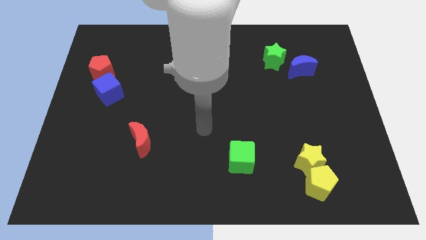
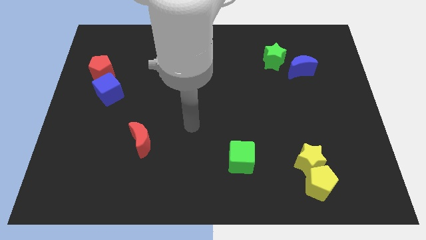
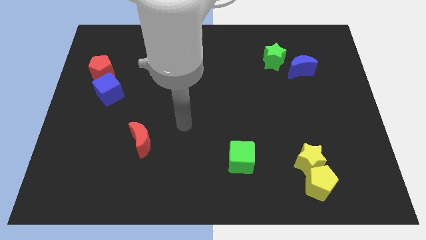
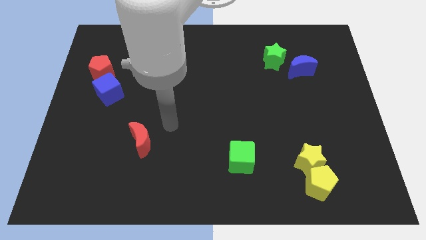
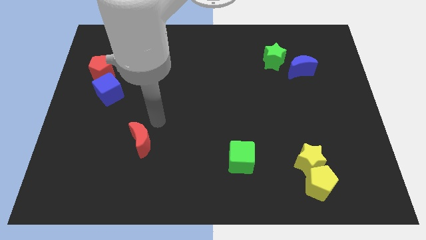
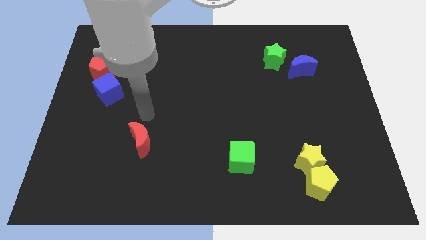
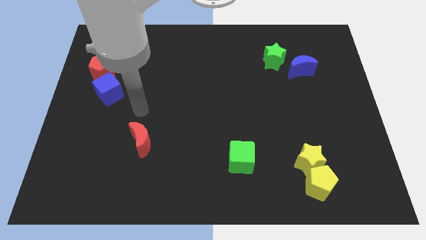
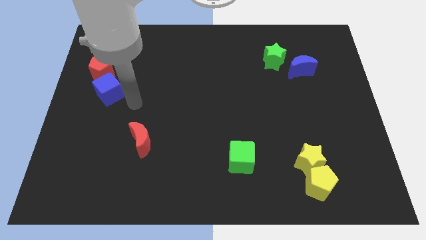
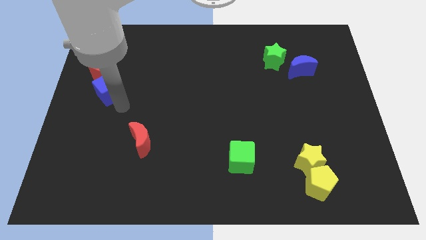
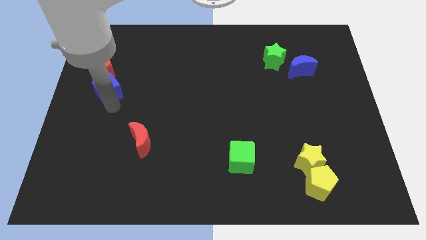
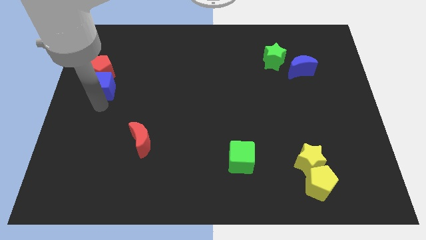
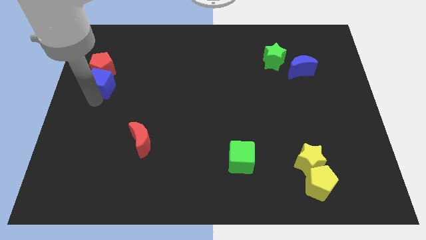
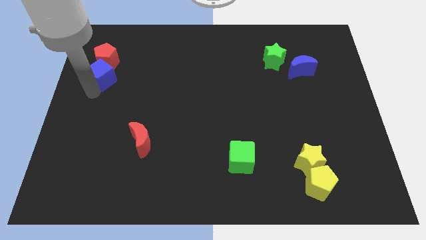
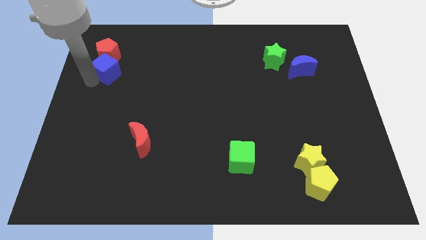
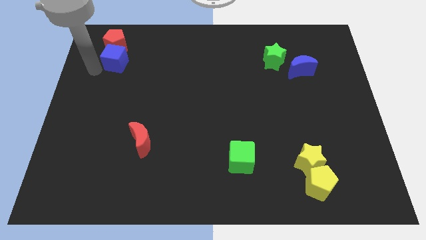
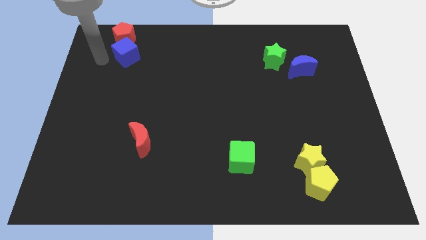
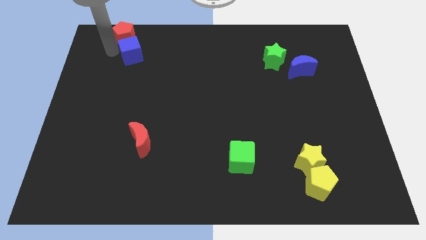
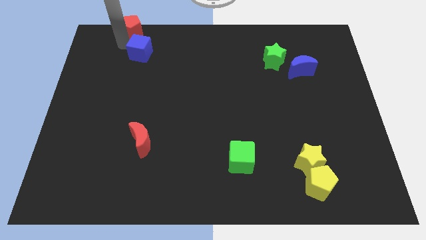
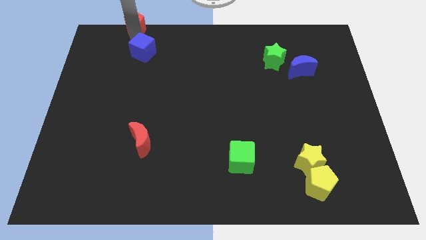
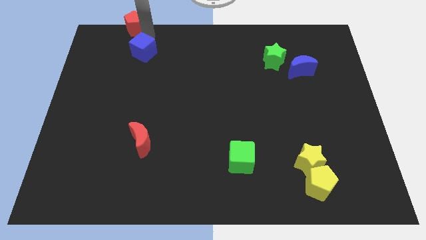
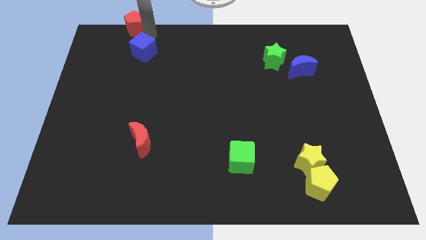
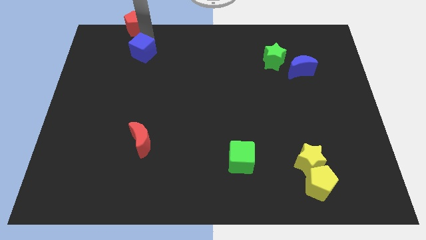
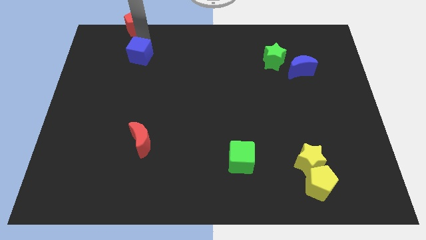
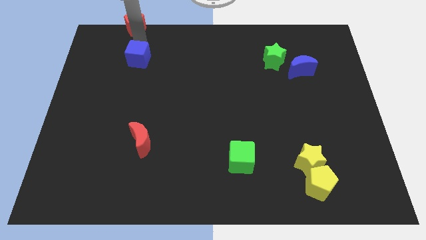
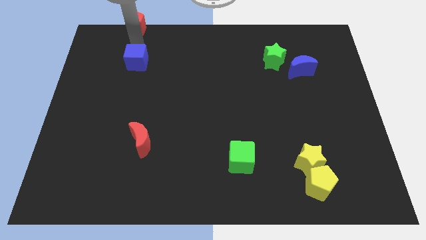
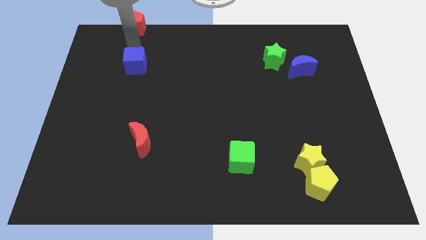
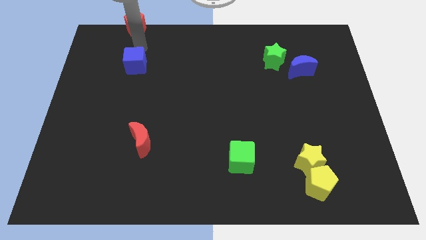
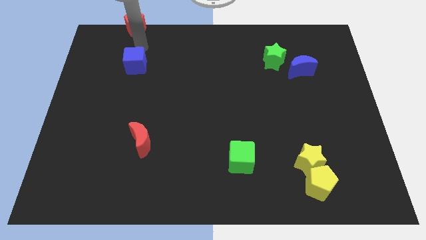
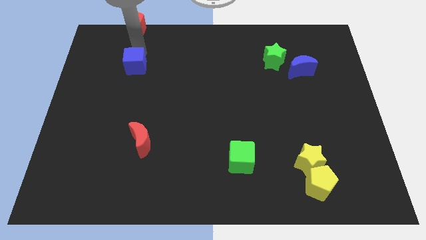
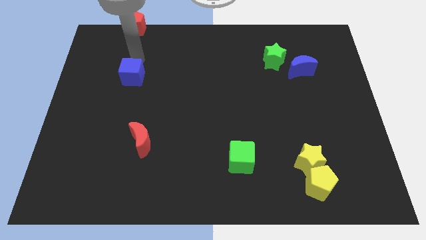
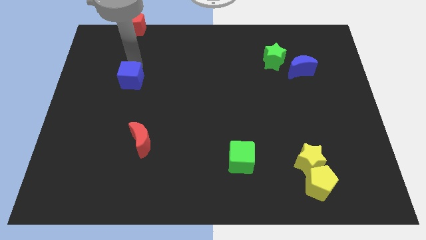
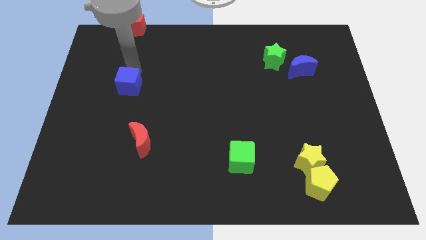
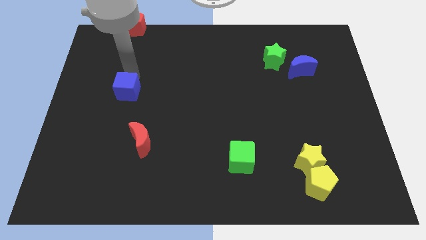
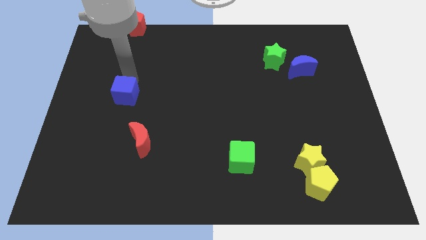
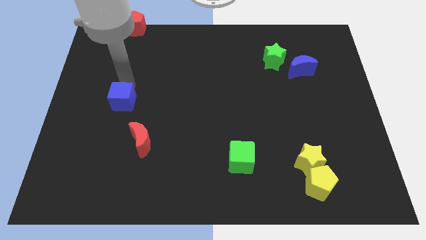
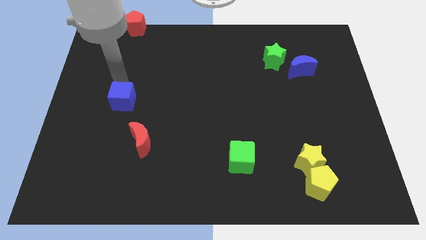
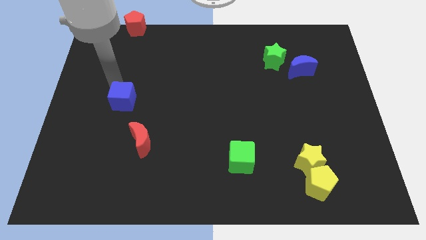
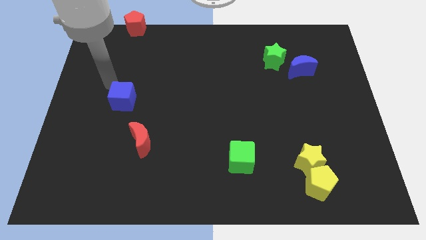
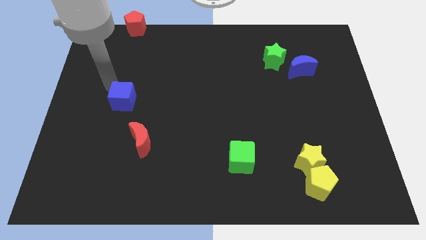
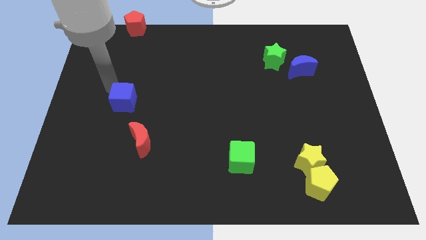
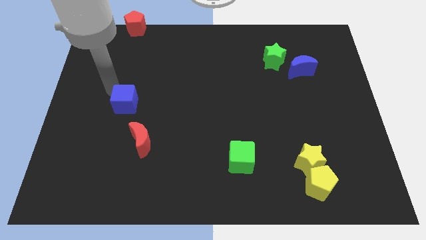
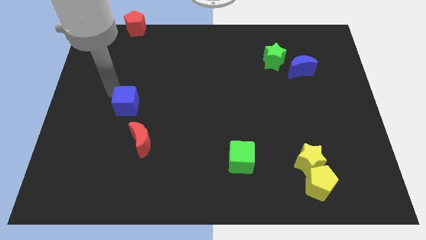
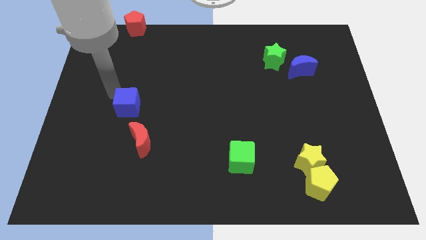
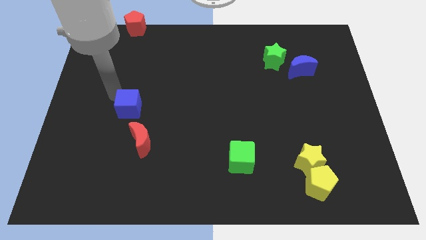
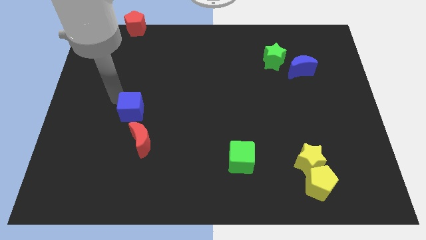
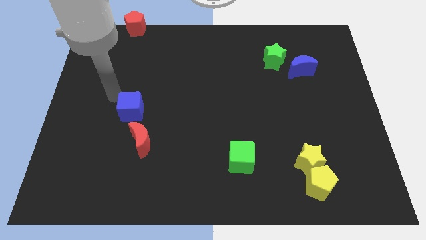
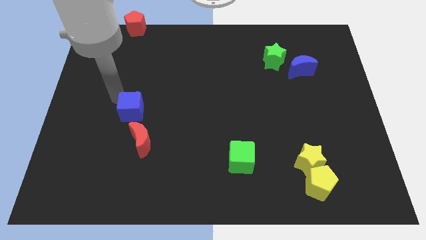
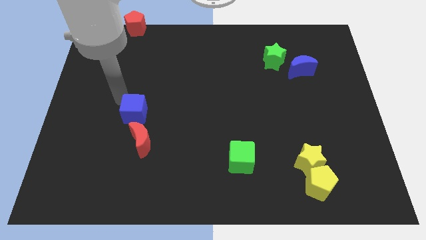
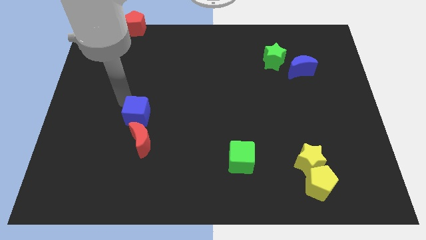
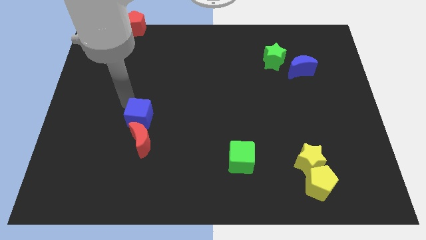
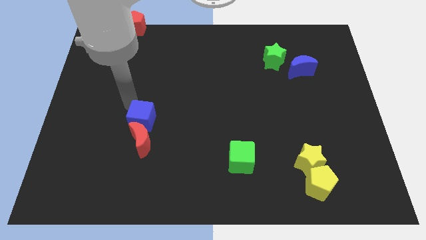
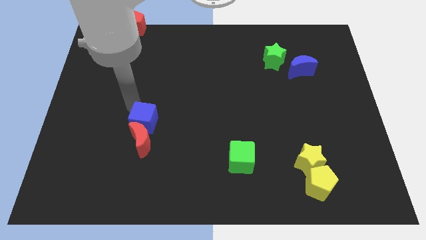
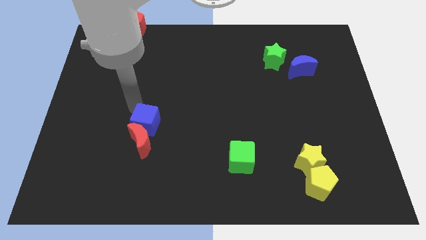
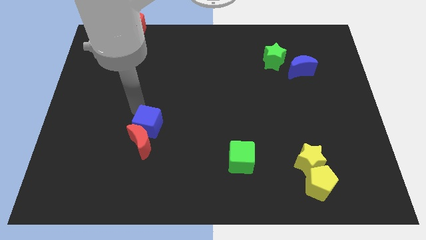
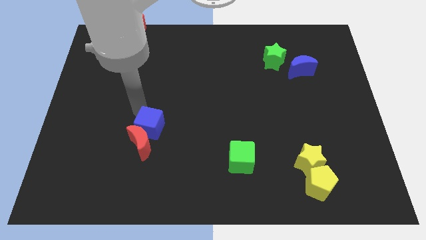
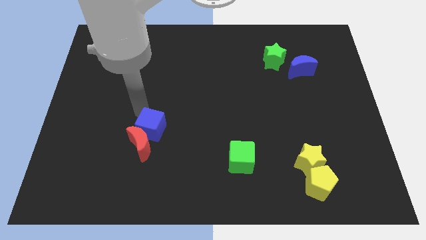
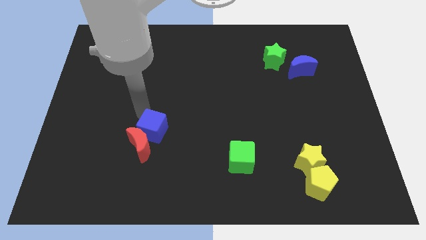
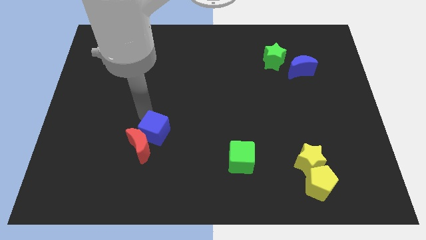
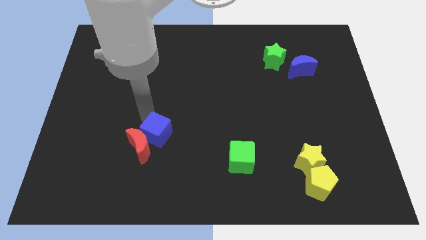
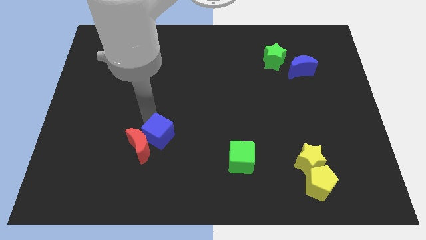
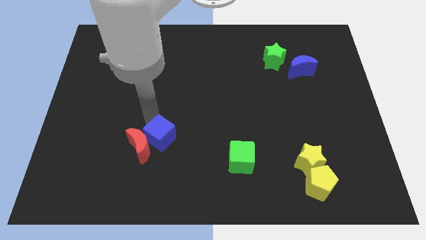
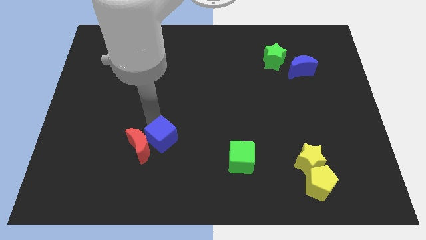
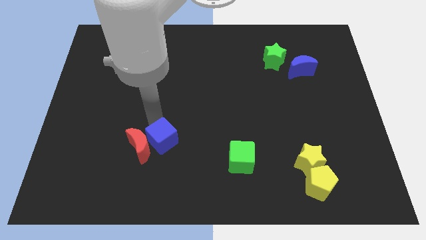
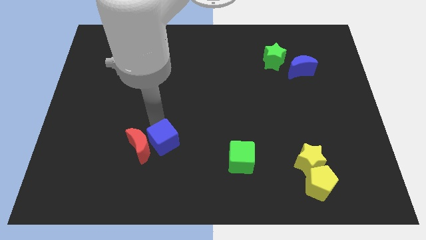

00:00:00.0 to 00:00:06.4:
move the blue cube diagonally downwards and to the right

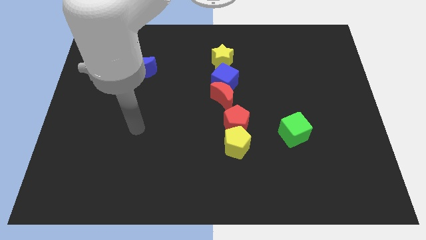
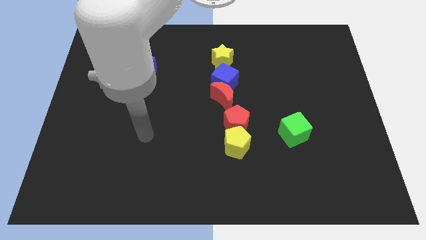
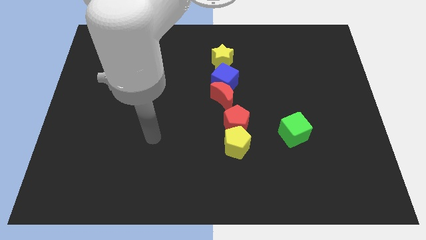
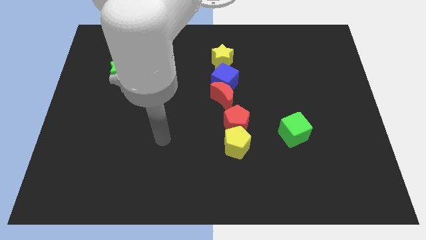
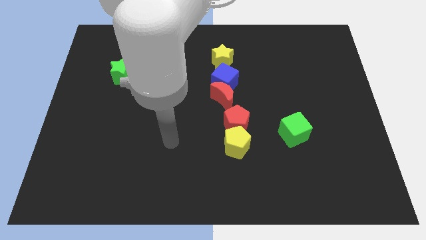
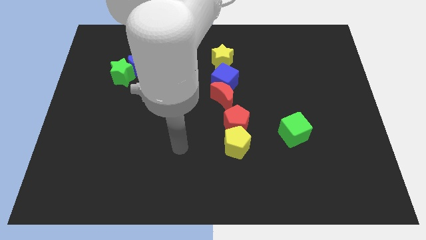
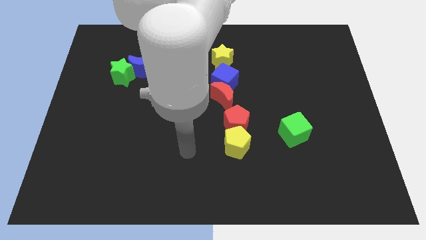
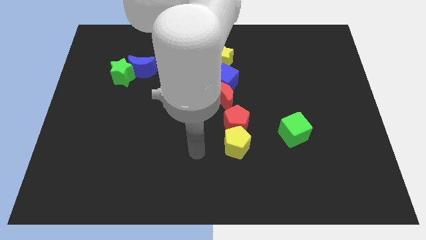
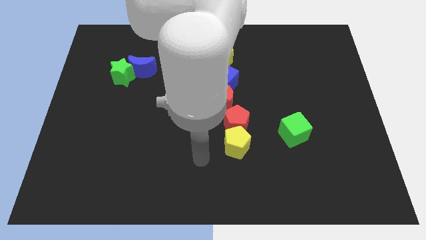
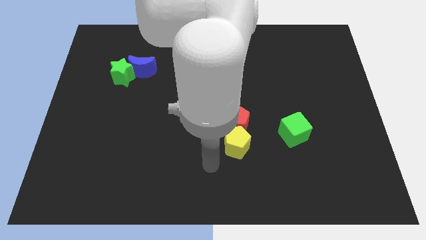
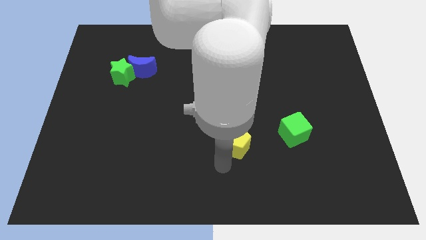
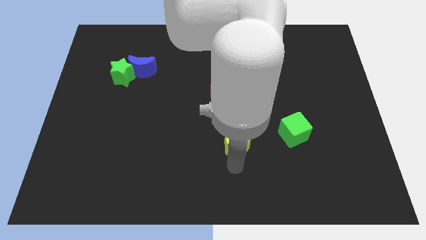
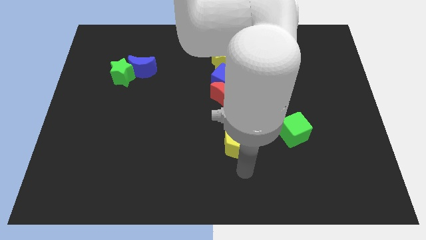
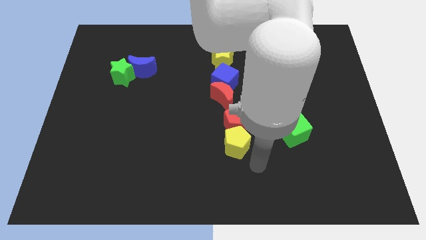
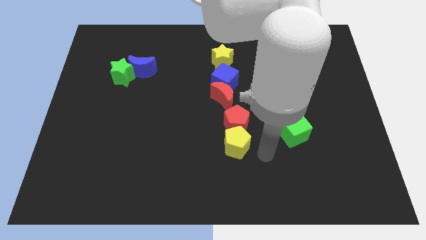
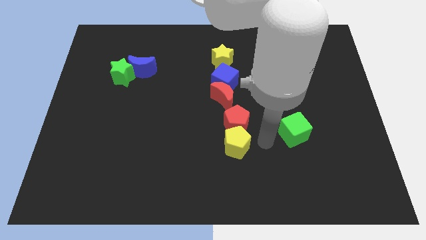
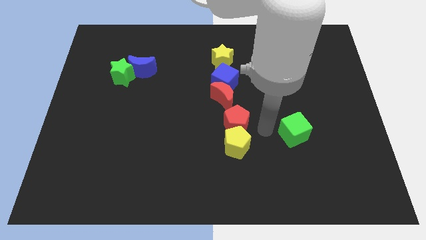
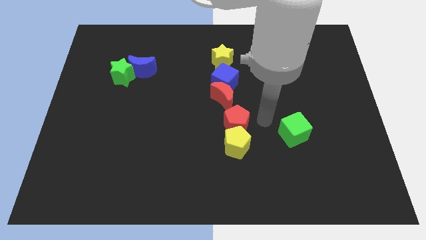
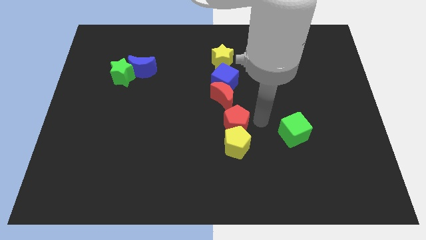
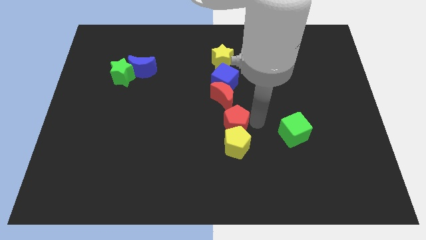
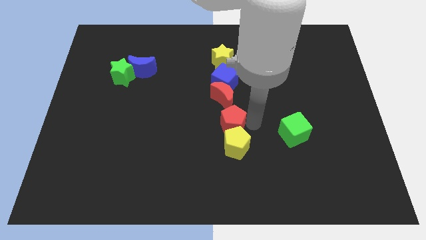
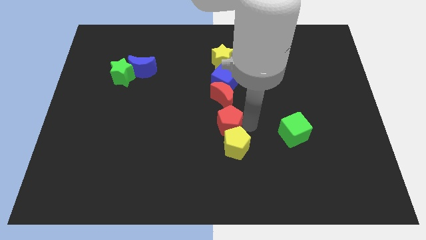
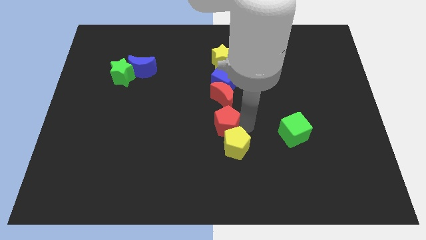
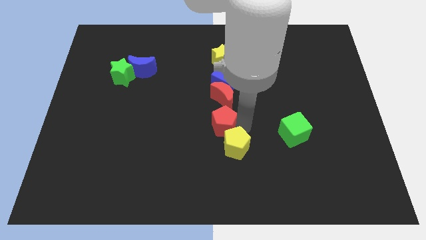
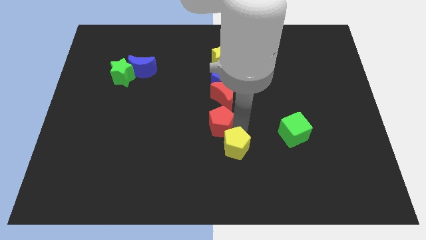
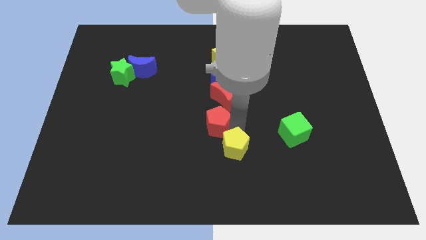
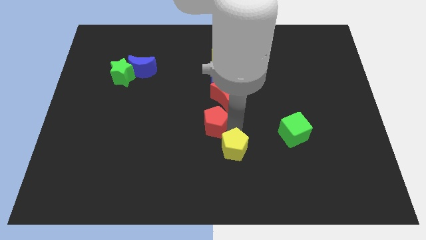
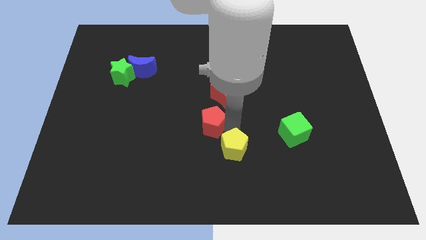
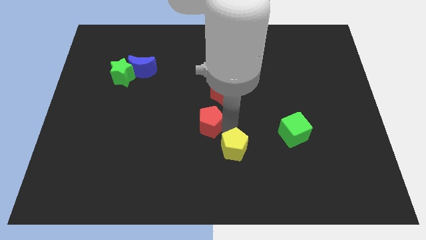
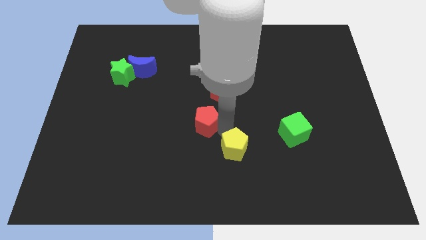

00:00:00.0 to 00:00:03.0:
push the red pentagon left a little bit
